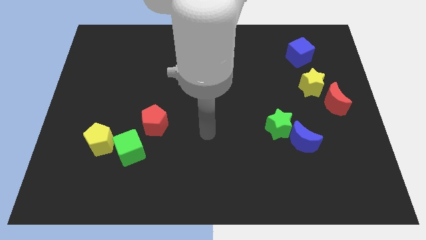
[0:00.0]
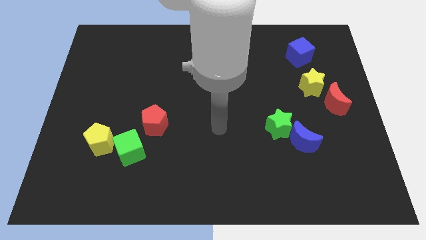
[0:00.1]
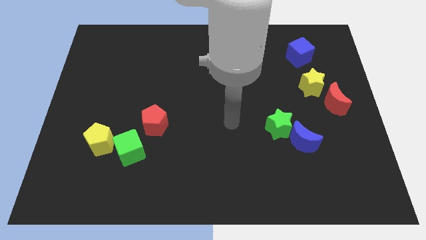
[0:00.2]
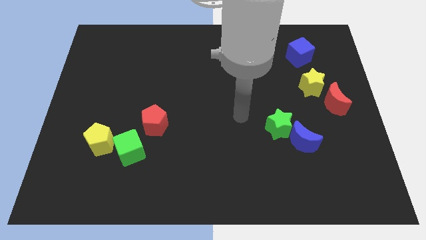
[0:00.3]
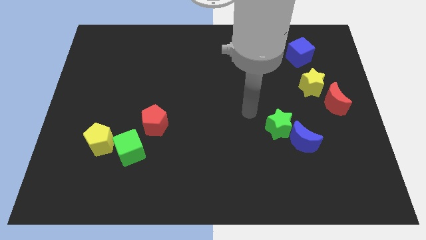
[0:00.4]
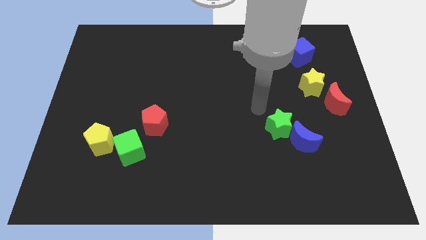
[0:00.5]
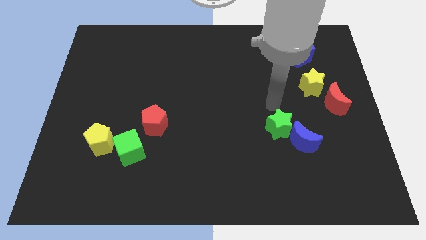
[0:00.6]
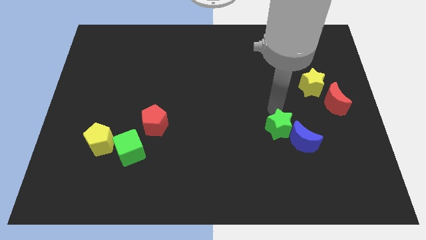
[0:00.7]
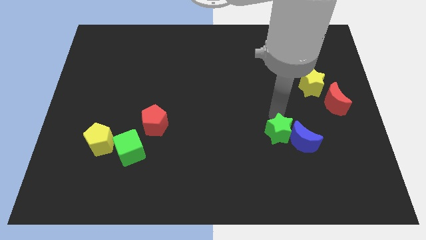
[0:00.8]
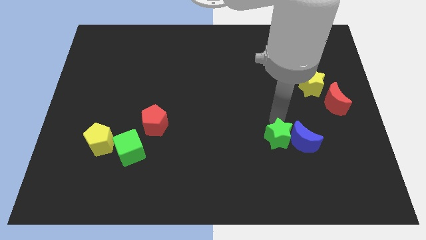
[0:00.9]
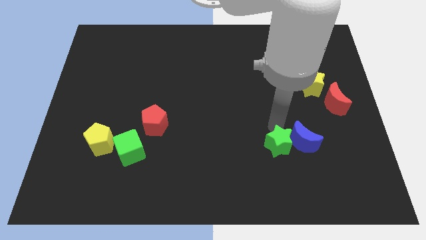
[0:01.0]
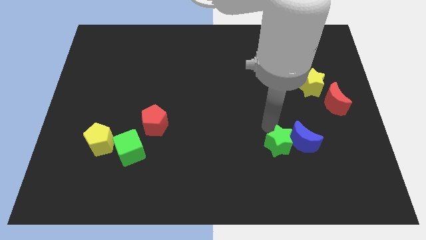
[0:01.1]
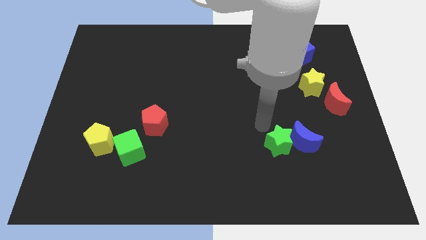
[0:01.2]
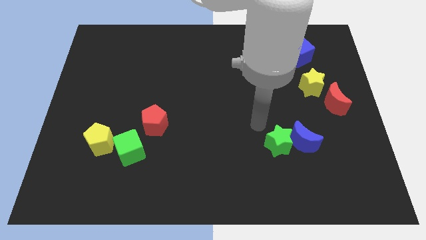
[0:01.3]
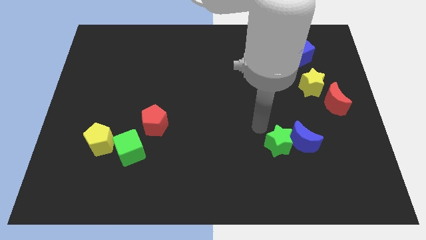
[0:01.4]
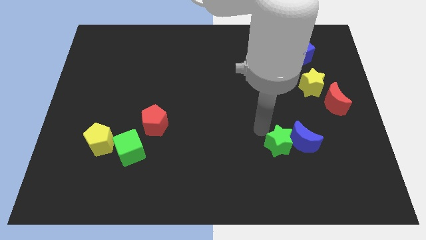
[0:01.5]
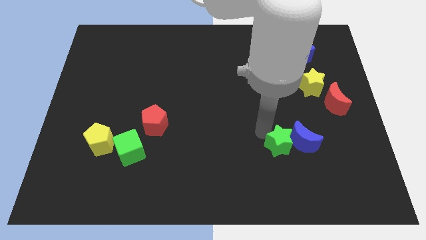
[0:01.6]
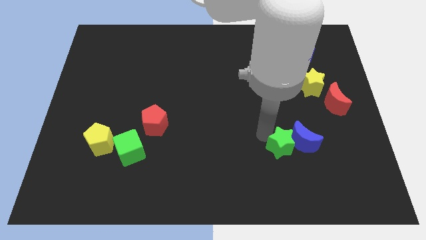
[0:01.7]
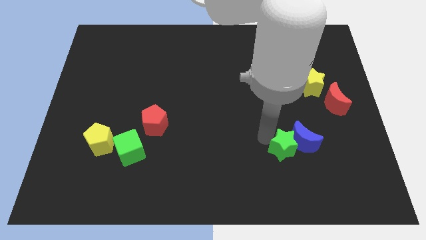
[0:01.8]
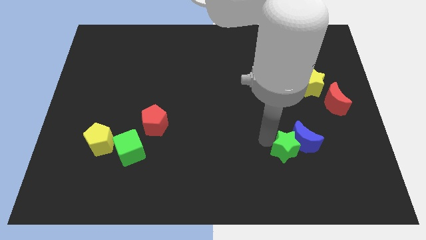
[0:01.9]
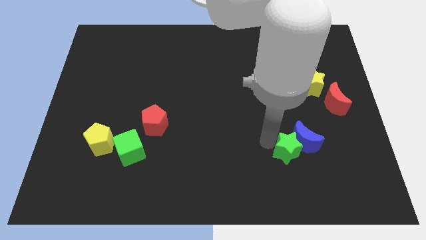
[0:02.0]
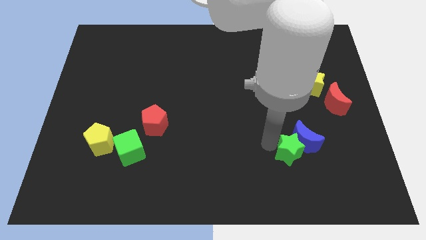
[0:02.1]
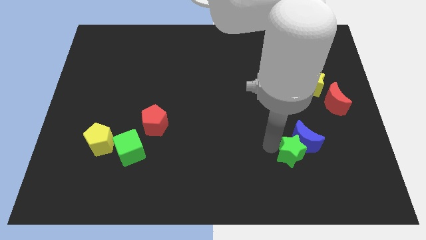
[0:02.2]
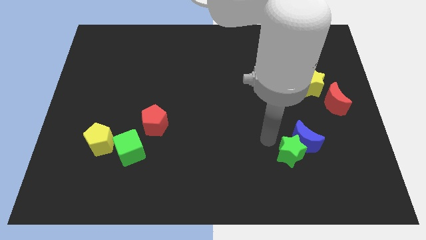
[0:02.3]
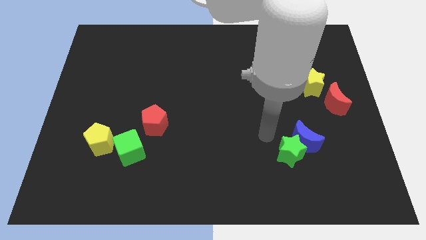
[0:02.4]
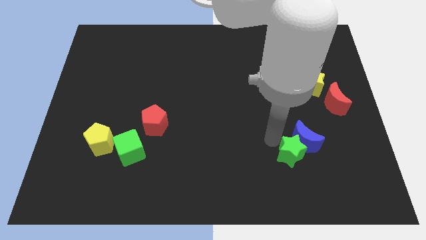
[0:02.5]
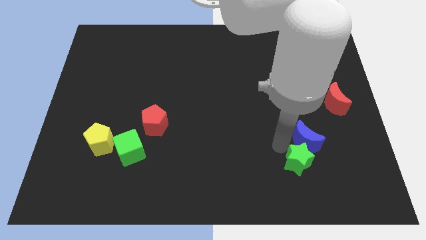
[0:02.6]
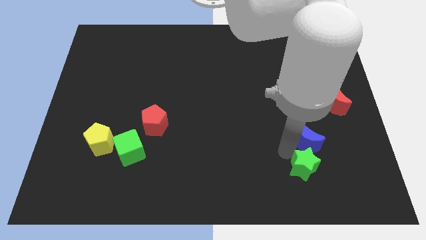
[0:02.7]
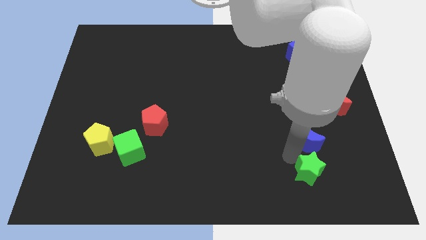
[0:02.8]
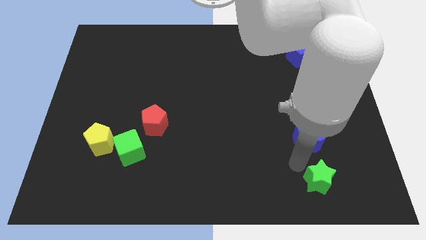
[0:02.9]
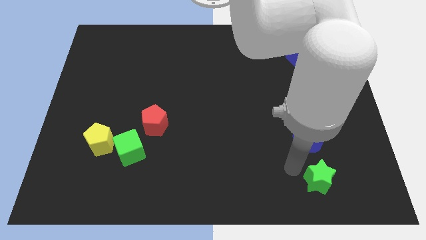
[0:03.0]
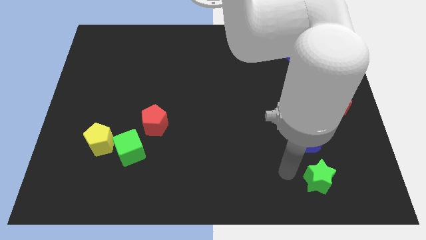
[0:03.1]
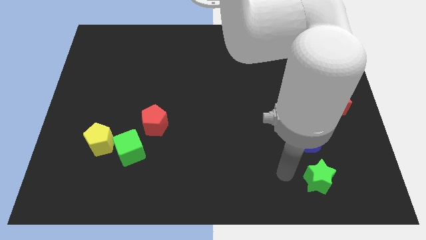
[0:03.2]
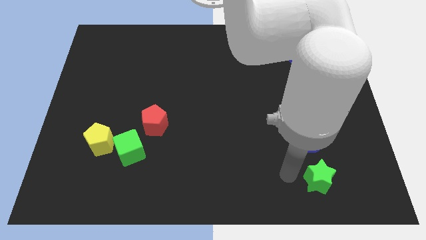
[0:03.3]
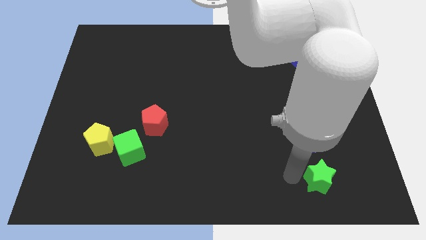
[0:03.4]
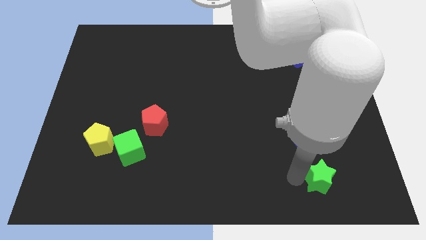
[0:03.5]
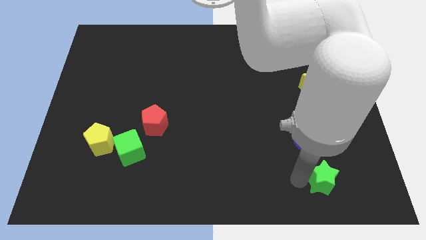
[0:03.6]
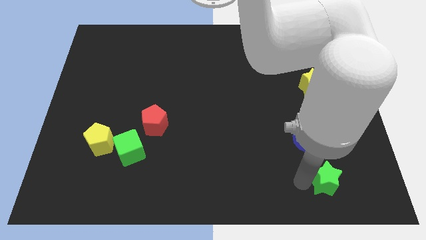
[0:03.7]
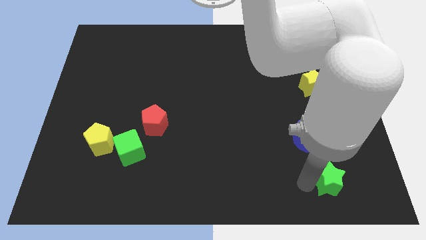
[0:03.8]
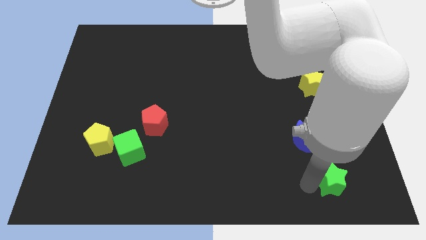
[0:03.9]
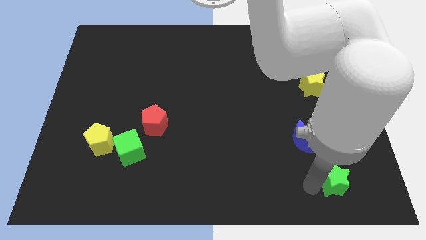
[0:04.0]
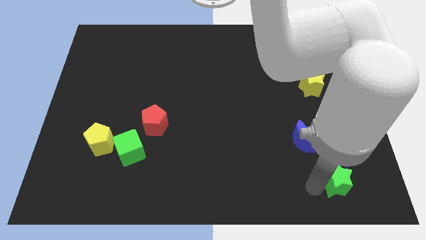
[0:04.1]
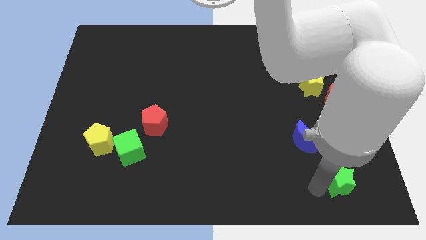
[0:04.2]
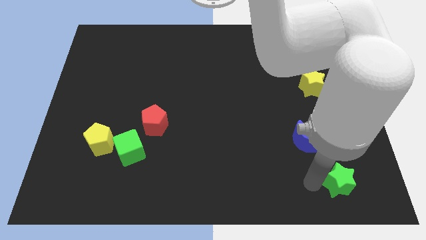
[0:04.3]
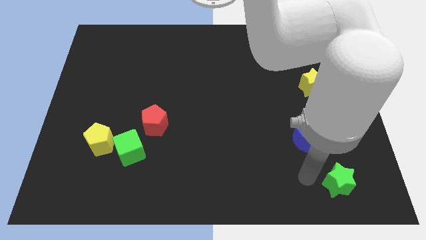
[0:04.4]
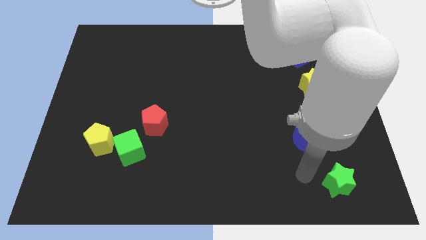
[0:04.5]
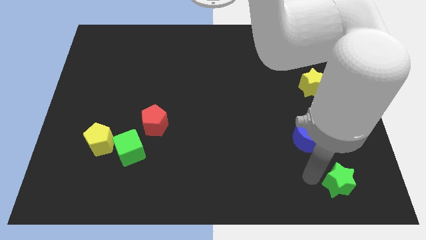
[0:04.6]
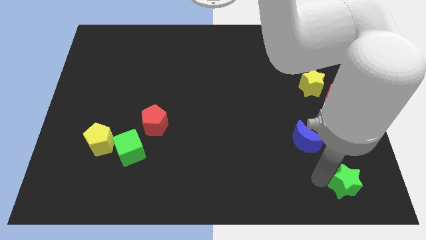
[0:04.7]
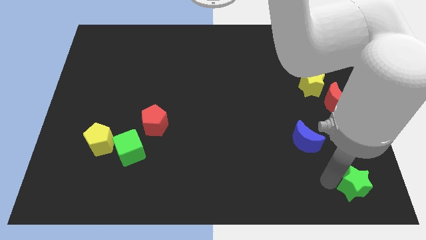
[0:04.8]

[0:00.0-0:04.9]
put the green star to the lower right corner

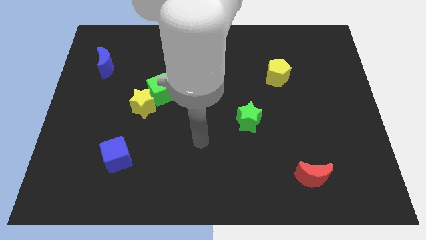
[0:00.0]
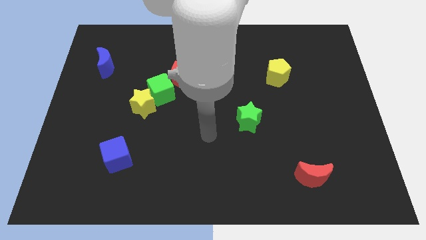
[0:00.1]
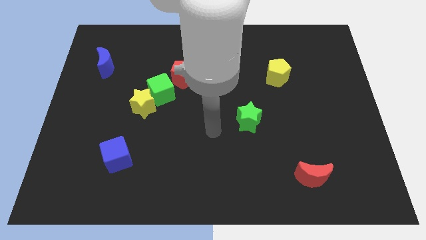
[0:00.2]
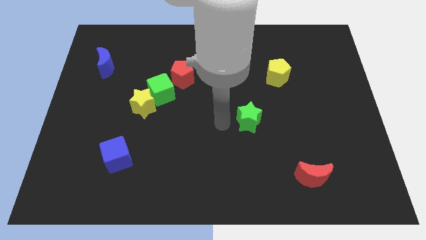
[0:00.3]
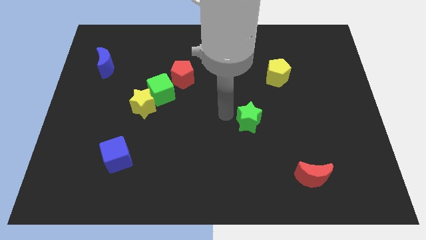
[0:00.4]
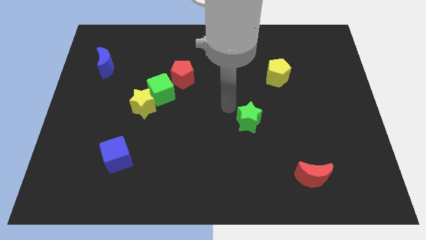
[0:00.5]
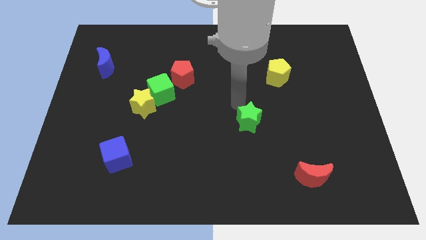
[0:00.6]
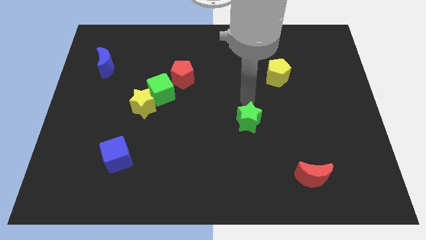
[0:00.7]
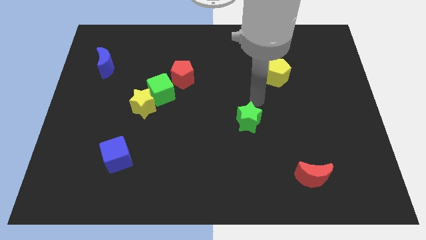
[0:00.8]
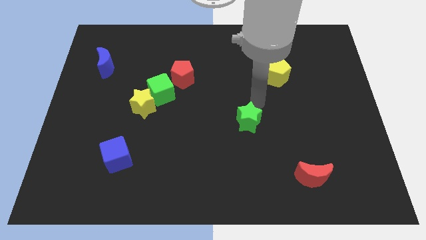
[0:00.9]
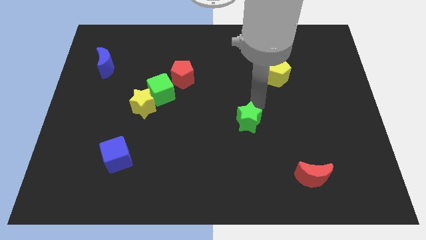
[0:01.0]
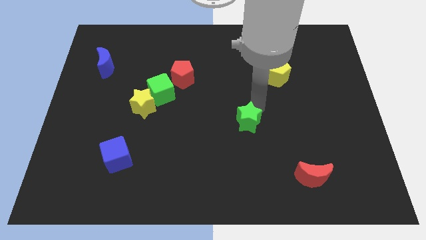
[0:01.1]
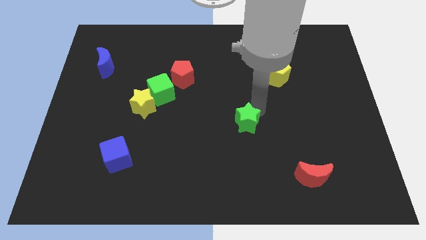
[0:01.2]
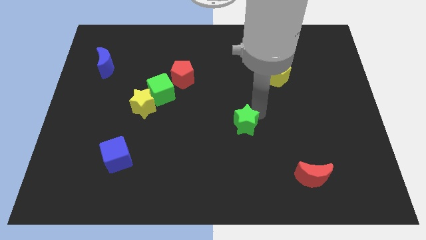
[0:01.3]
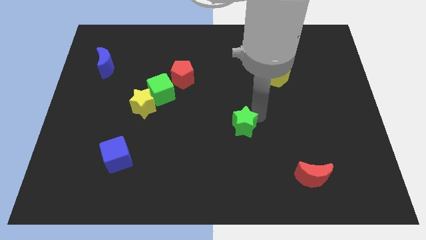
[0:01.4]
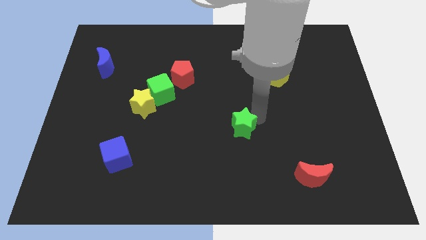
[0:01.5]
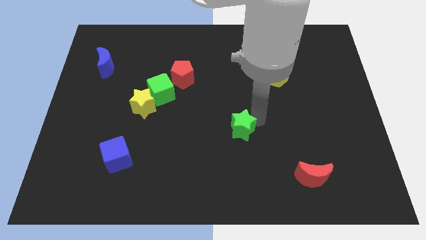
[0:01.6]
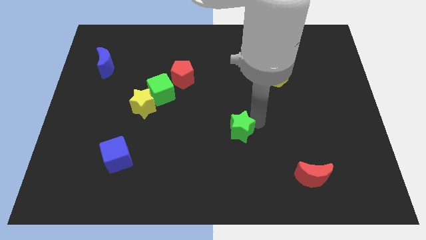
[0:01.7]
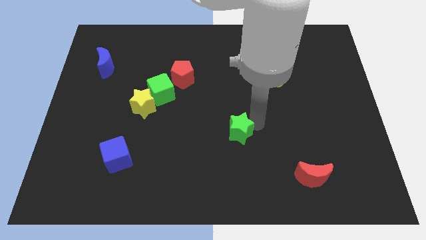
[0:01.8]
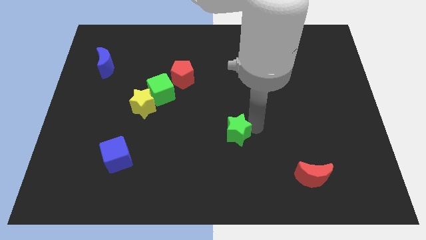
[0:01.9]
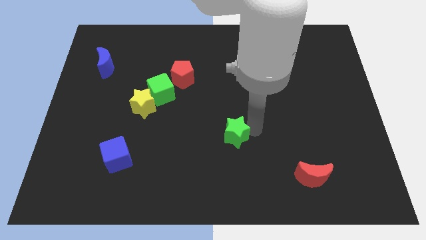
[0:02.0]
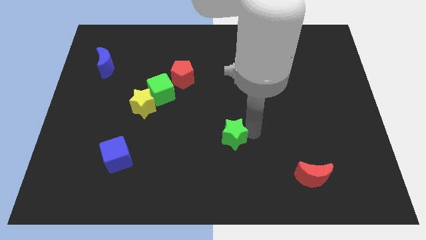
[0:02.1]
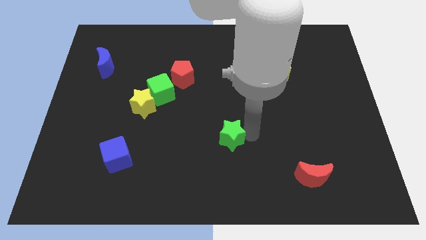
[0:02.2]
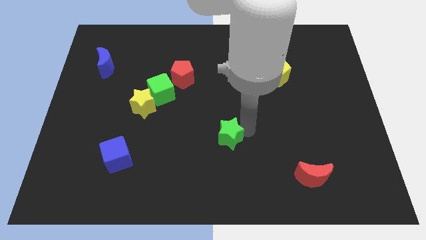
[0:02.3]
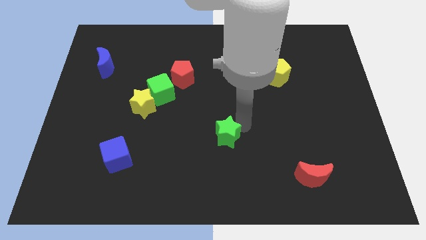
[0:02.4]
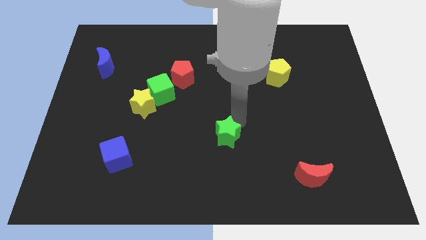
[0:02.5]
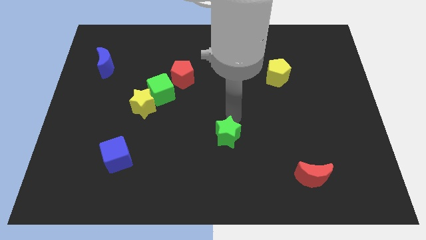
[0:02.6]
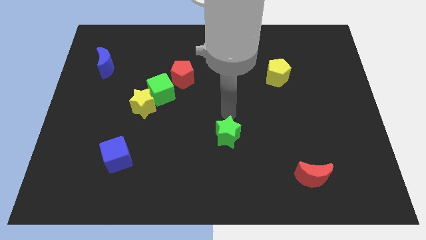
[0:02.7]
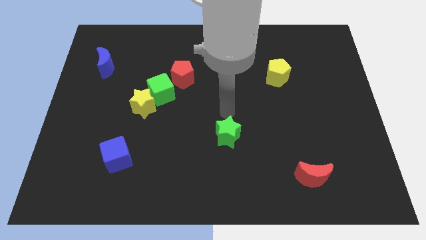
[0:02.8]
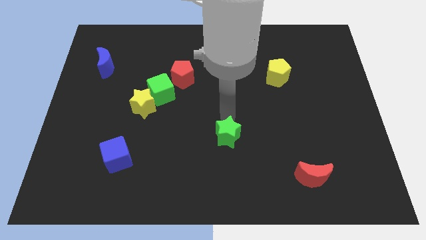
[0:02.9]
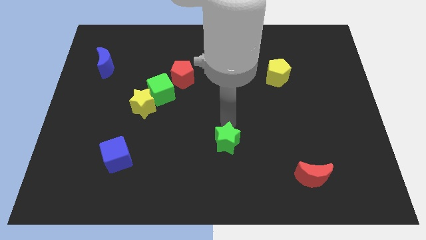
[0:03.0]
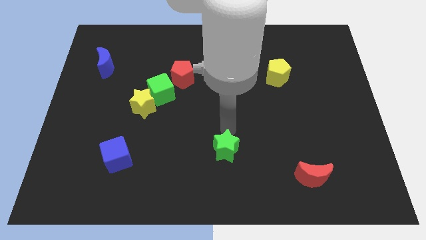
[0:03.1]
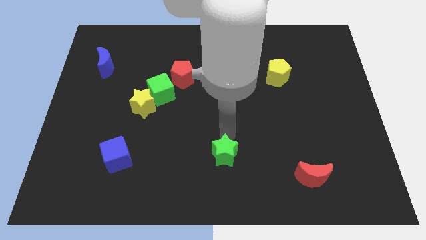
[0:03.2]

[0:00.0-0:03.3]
move the green star to the bottom
